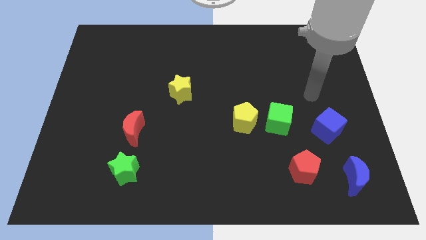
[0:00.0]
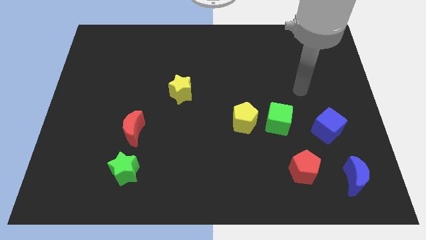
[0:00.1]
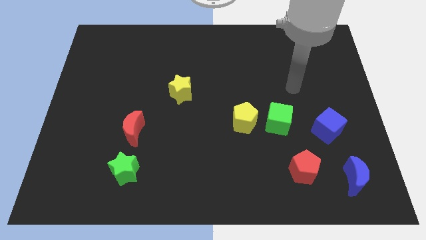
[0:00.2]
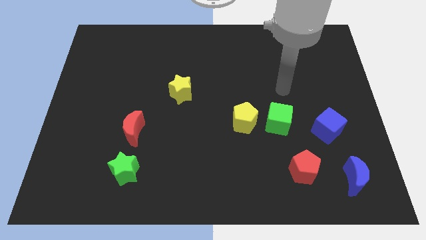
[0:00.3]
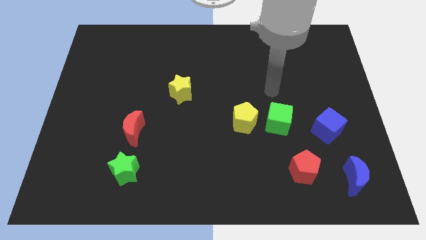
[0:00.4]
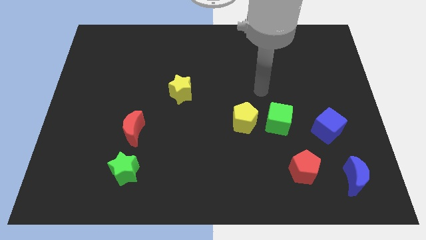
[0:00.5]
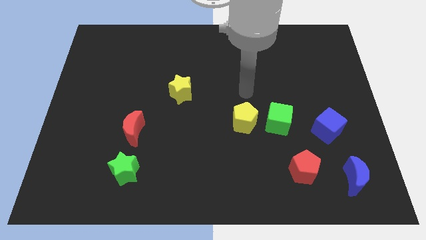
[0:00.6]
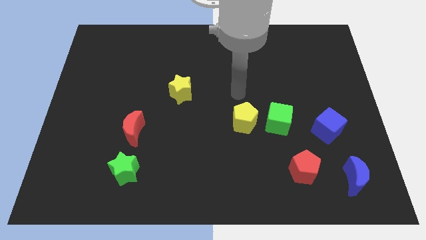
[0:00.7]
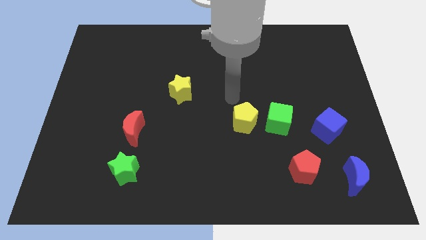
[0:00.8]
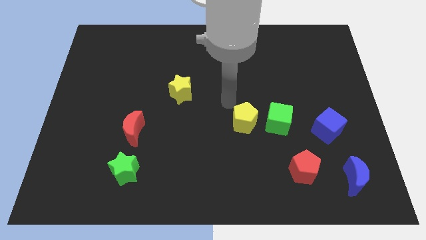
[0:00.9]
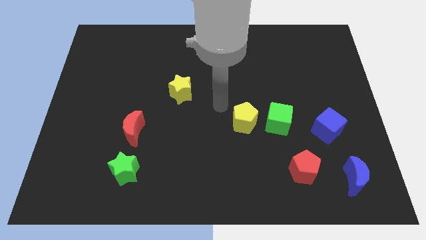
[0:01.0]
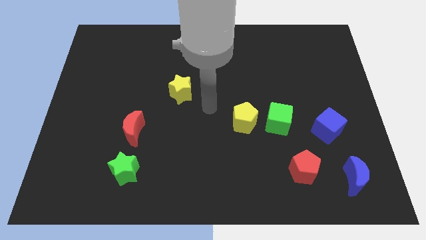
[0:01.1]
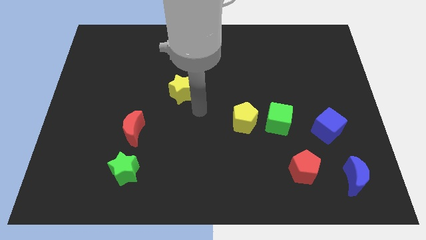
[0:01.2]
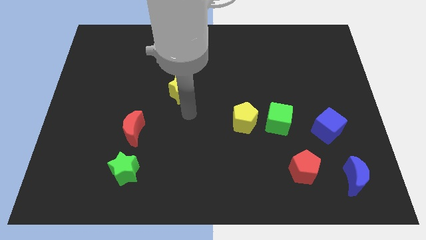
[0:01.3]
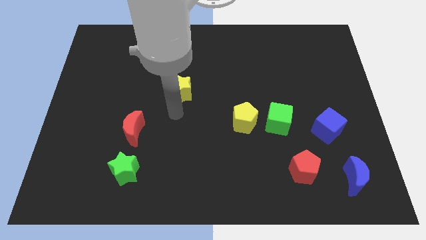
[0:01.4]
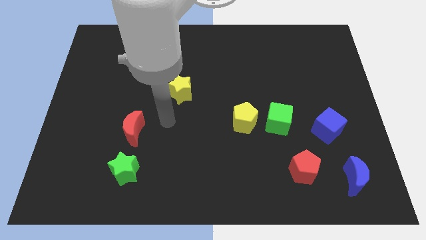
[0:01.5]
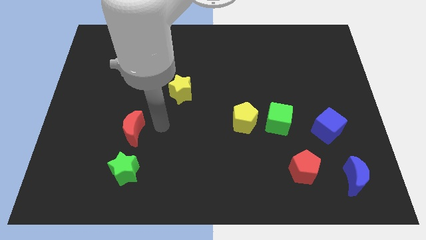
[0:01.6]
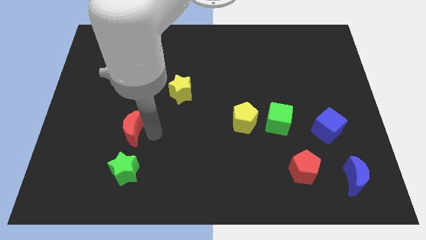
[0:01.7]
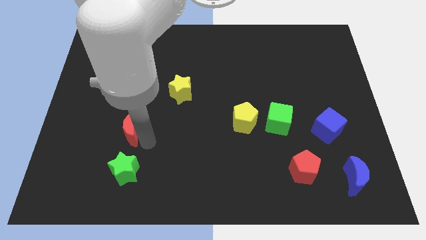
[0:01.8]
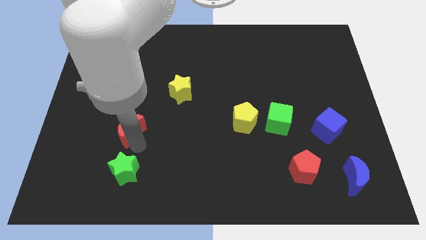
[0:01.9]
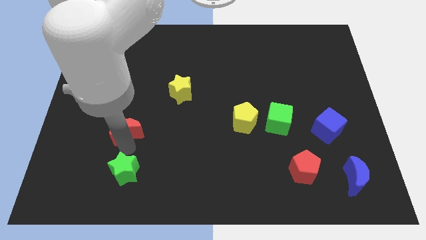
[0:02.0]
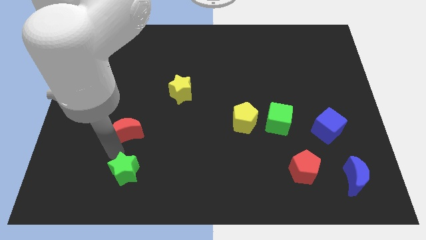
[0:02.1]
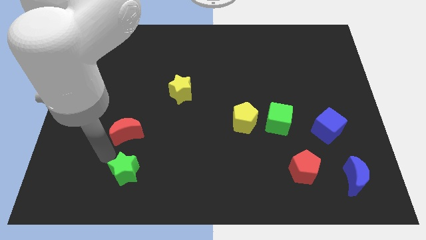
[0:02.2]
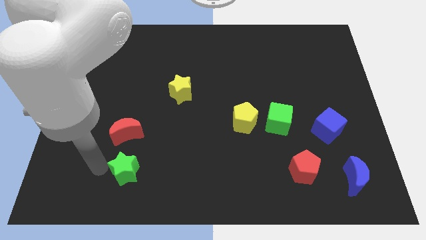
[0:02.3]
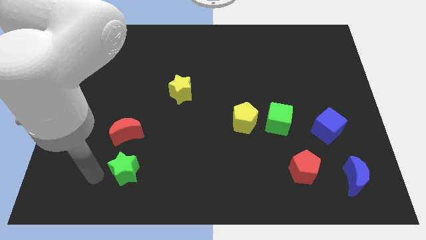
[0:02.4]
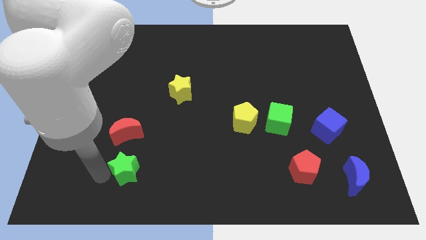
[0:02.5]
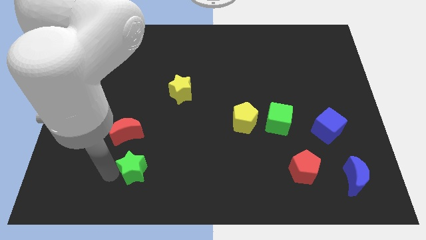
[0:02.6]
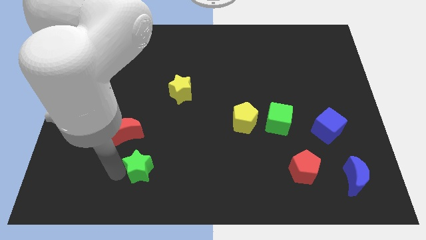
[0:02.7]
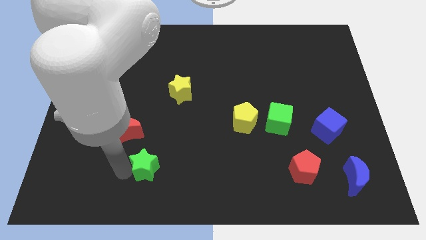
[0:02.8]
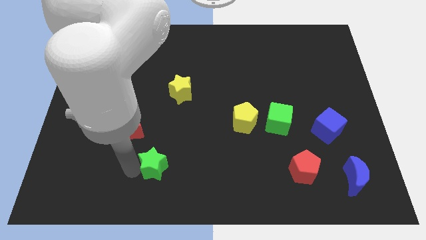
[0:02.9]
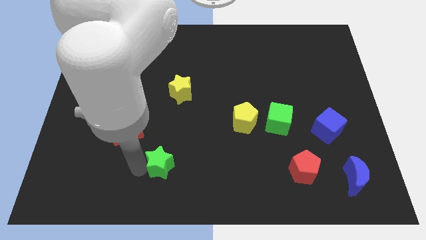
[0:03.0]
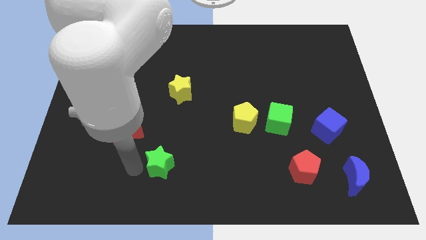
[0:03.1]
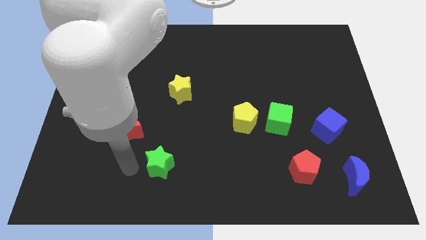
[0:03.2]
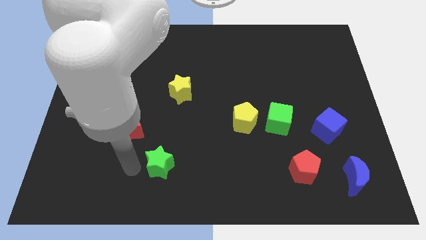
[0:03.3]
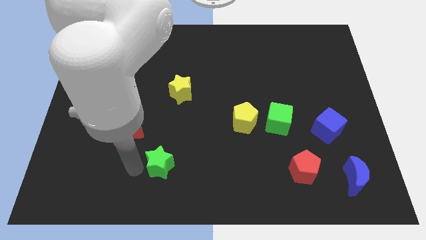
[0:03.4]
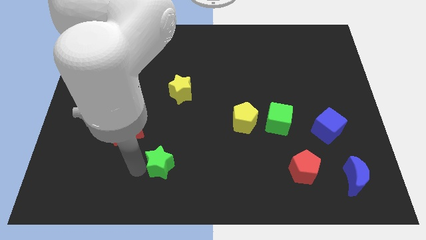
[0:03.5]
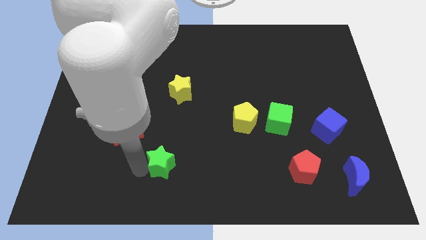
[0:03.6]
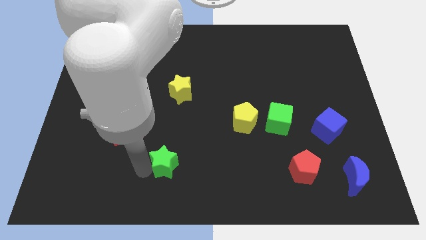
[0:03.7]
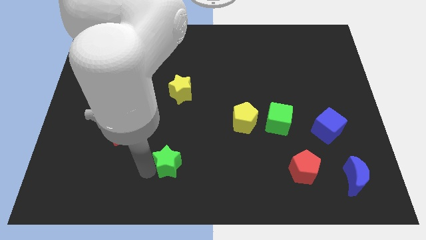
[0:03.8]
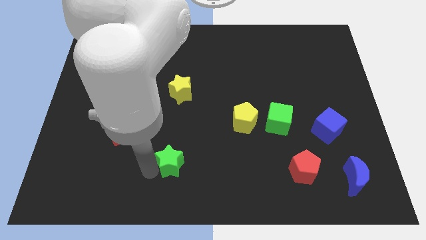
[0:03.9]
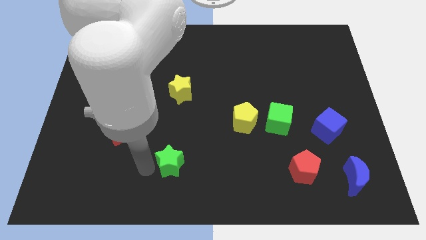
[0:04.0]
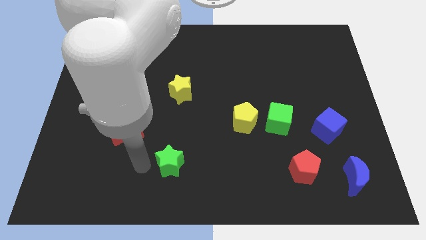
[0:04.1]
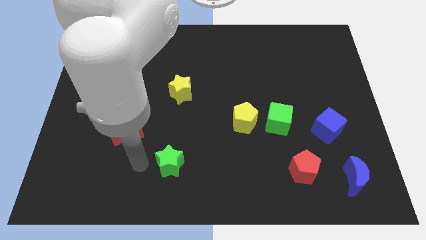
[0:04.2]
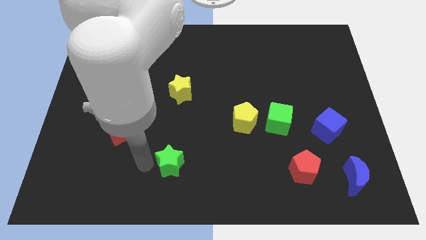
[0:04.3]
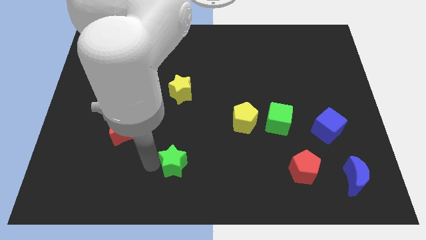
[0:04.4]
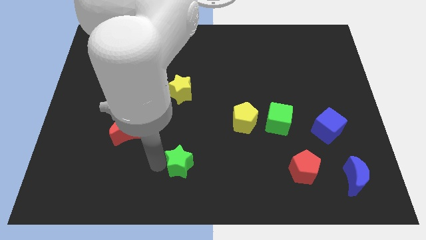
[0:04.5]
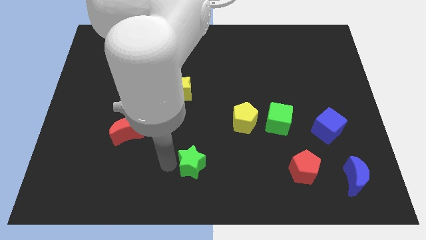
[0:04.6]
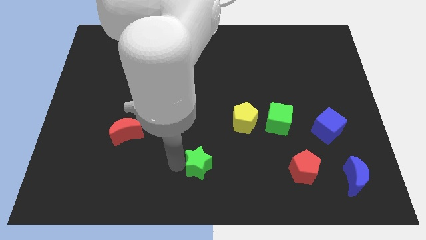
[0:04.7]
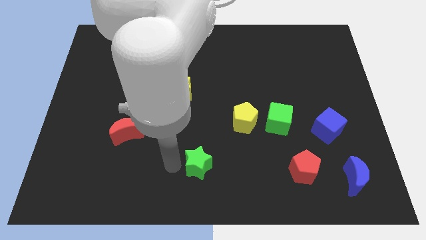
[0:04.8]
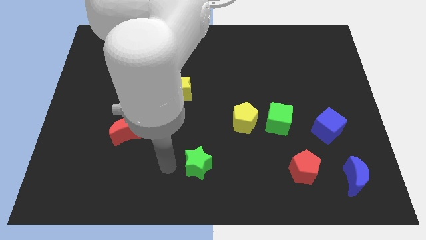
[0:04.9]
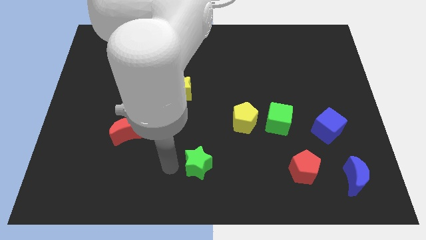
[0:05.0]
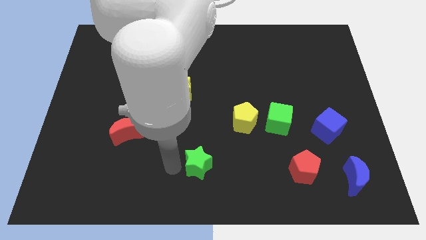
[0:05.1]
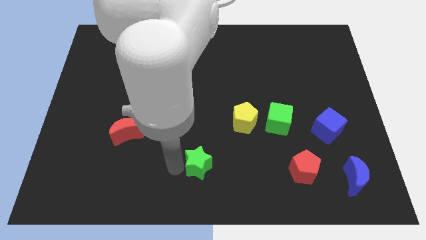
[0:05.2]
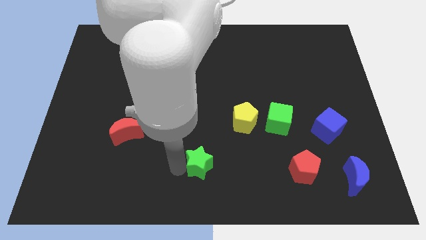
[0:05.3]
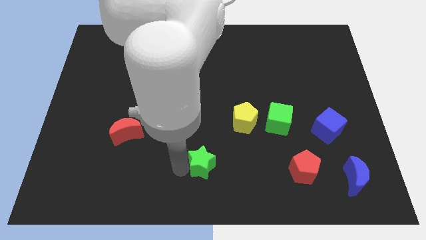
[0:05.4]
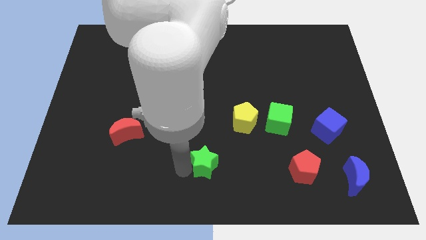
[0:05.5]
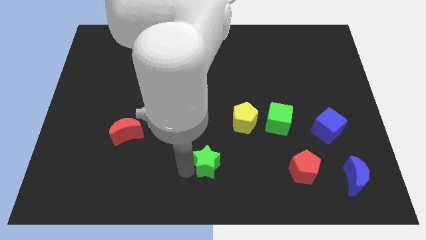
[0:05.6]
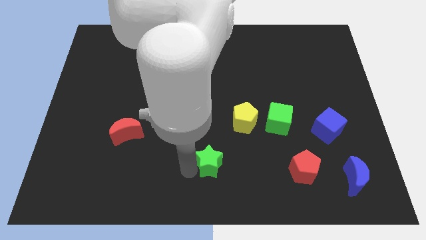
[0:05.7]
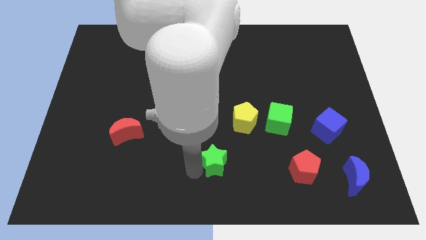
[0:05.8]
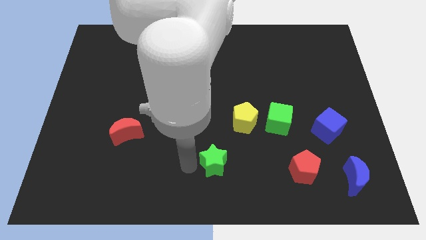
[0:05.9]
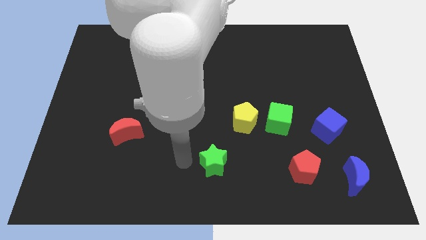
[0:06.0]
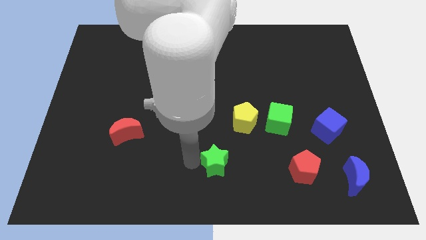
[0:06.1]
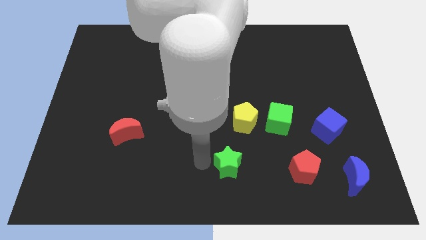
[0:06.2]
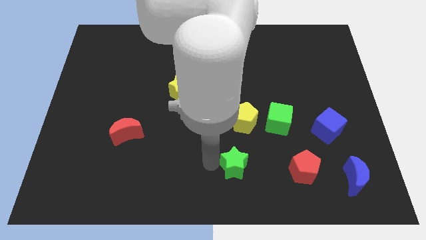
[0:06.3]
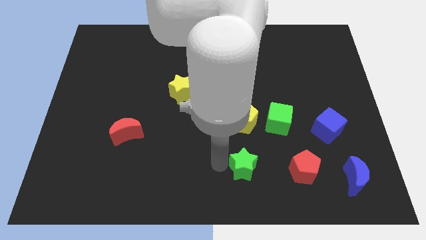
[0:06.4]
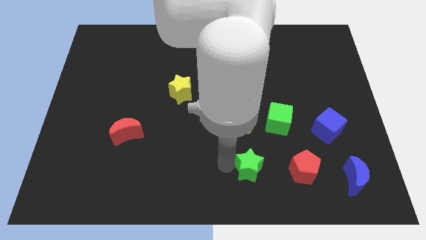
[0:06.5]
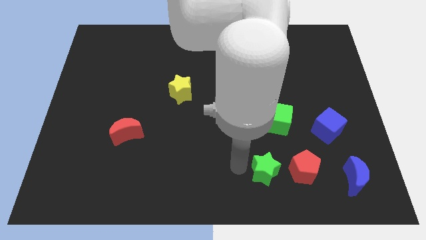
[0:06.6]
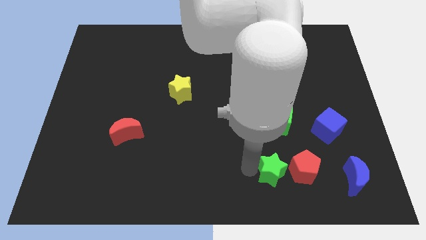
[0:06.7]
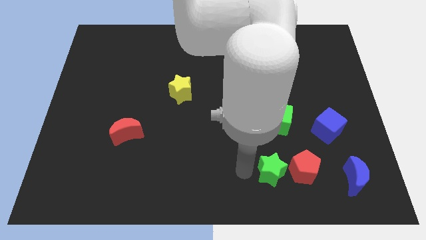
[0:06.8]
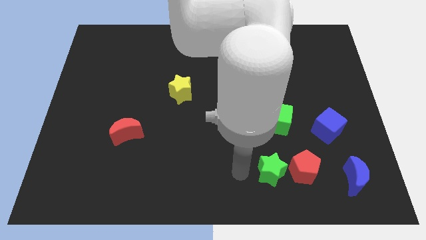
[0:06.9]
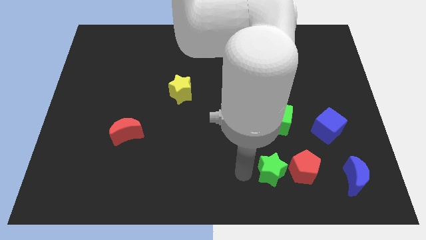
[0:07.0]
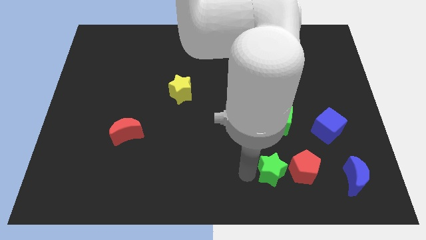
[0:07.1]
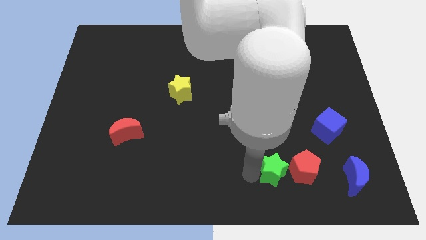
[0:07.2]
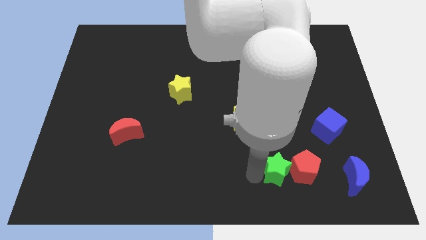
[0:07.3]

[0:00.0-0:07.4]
put the green star close to the red pentagon
